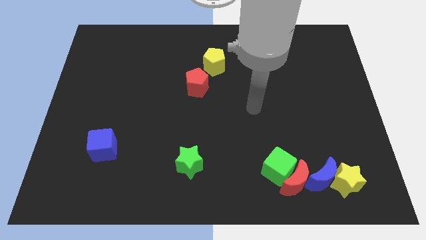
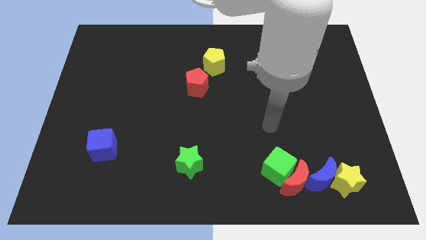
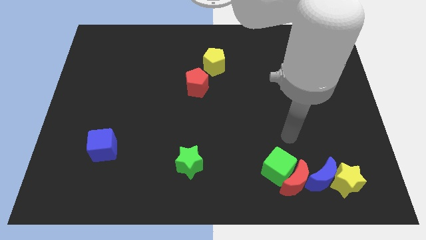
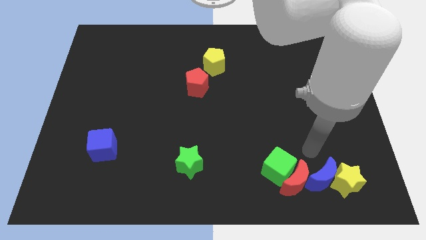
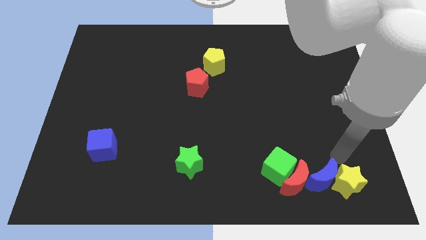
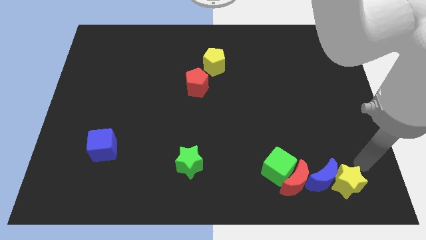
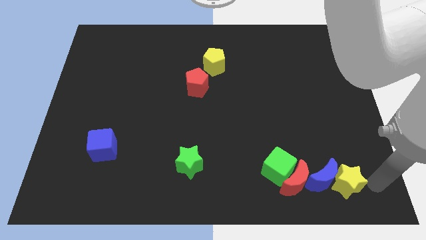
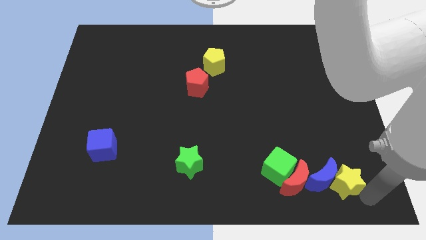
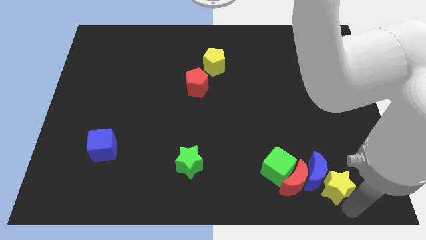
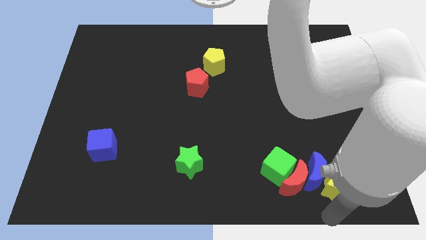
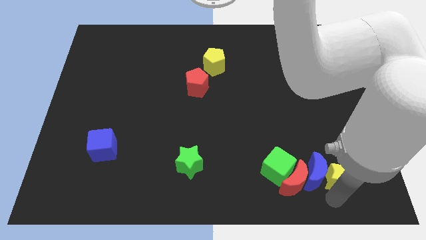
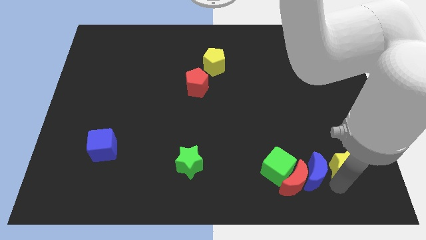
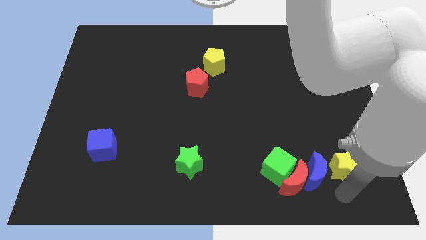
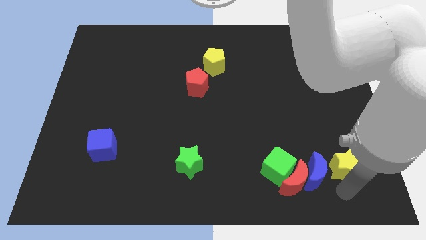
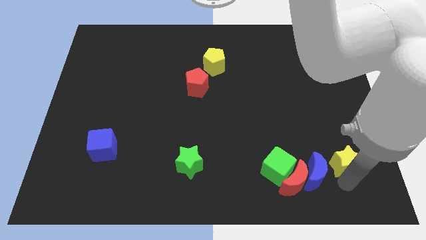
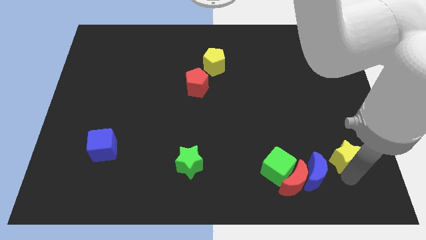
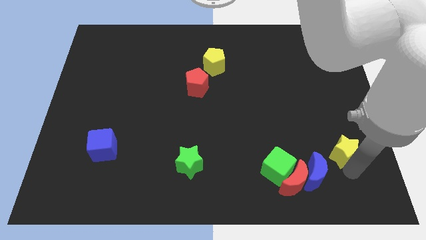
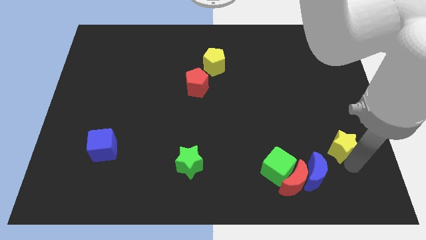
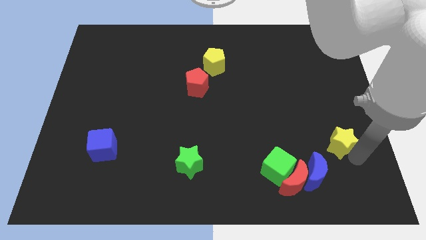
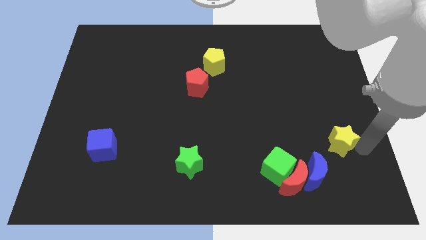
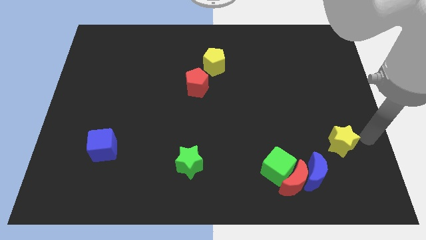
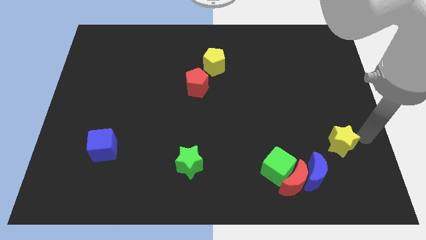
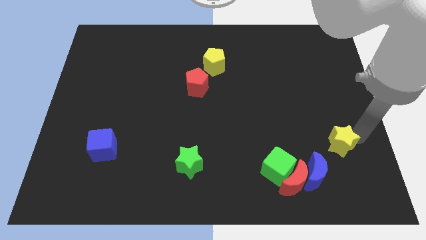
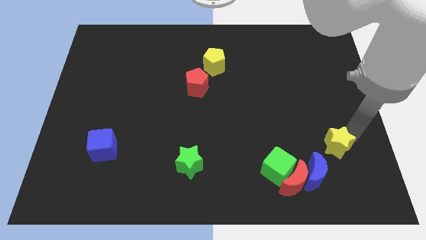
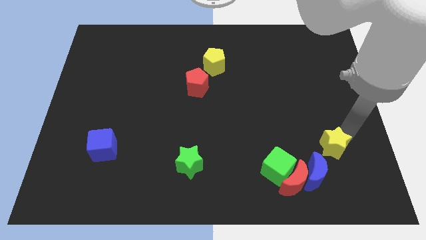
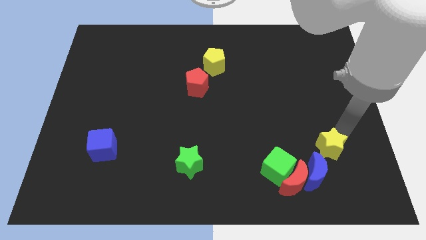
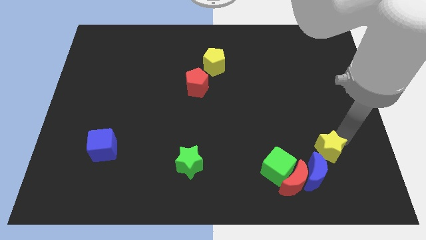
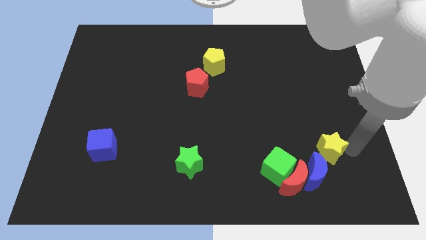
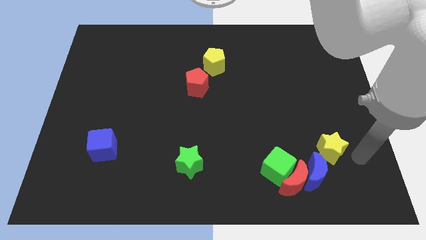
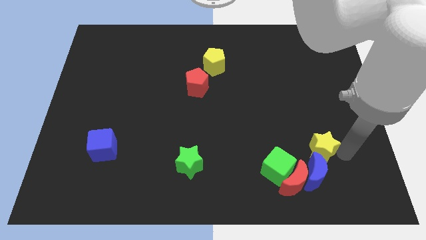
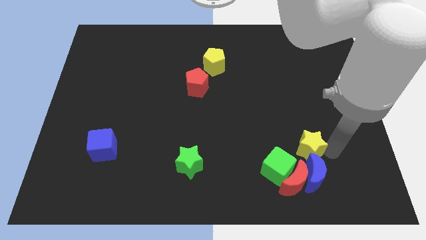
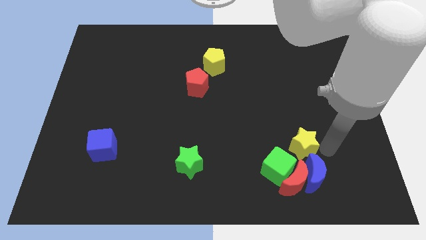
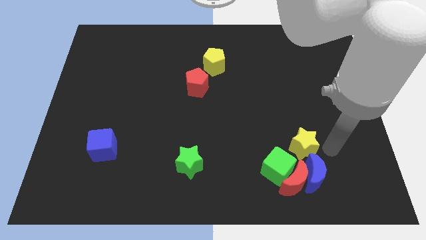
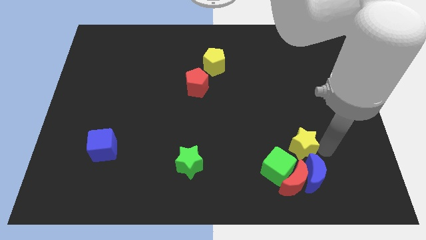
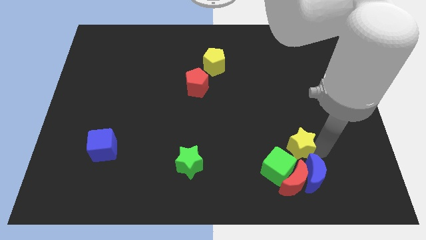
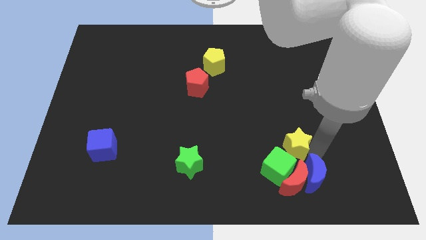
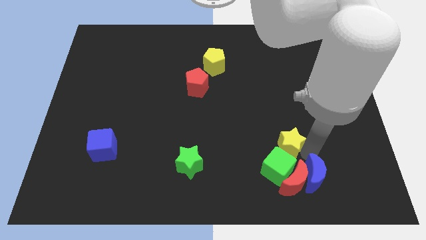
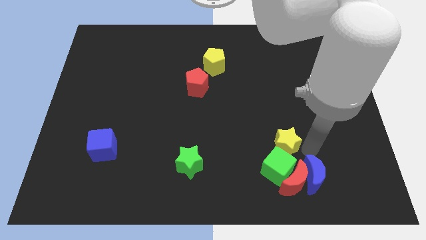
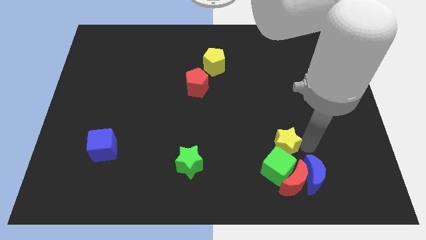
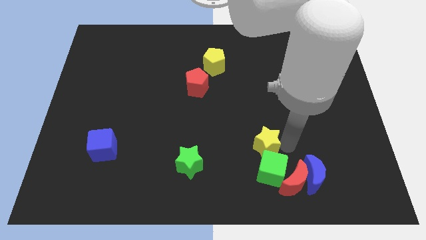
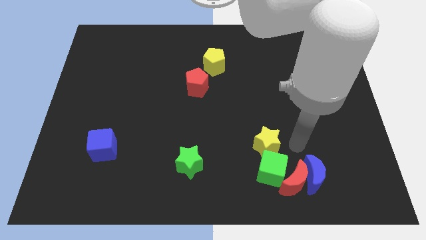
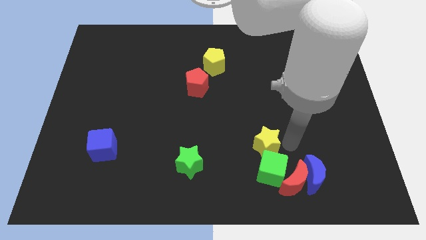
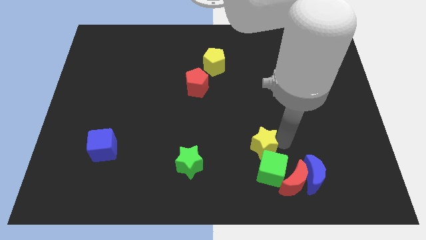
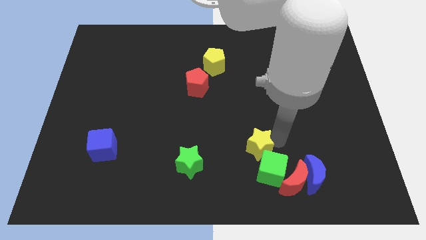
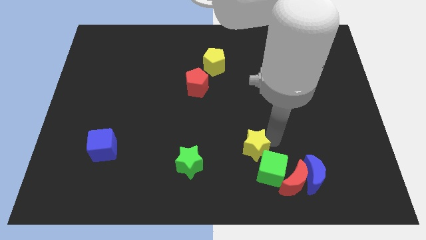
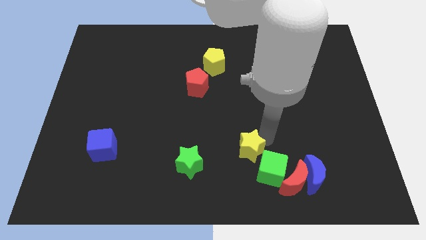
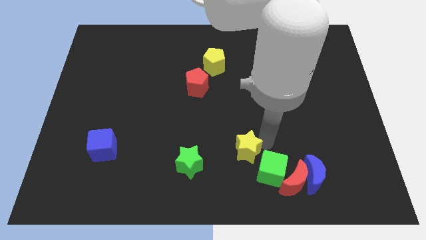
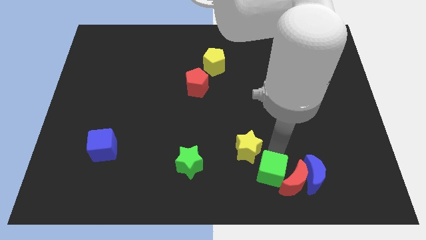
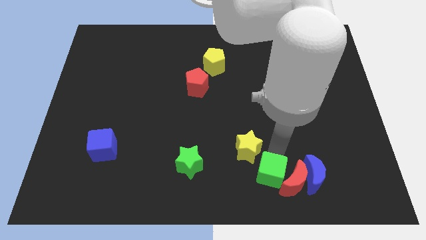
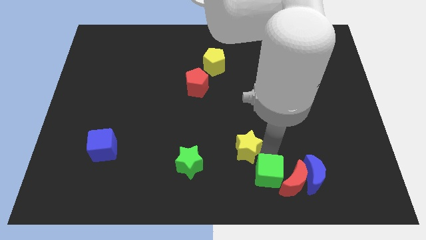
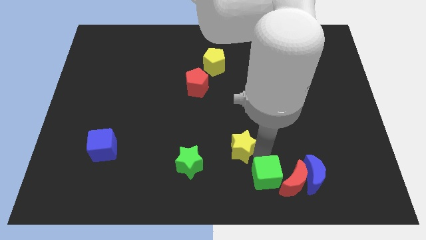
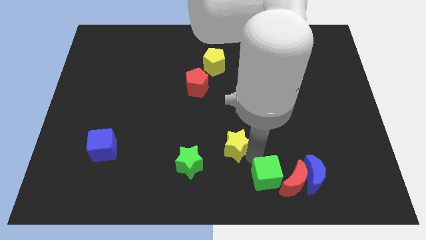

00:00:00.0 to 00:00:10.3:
put the yellow star to the top right of the green star

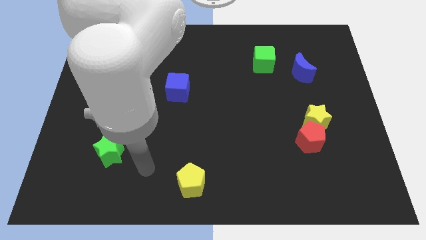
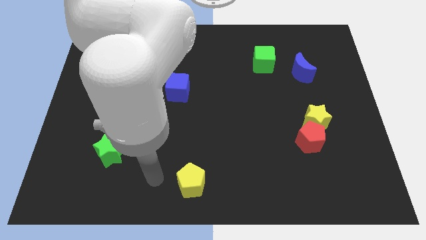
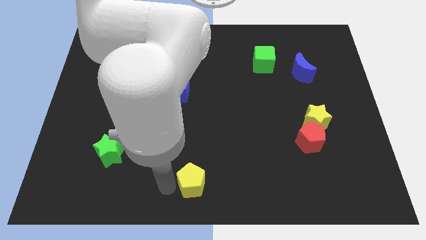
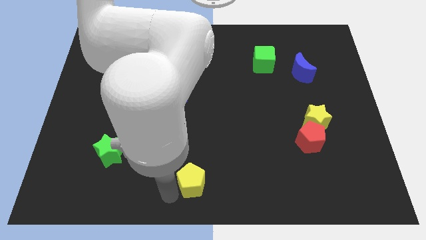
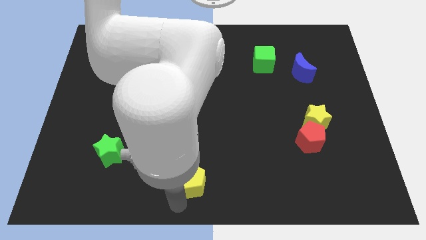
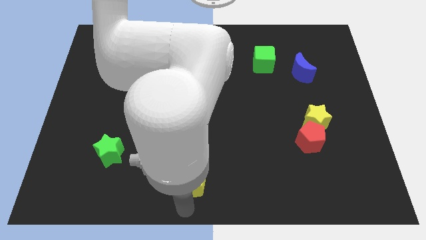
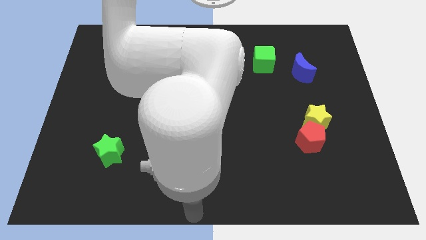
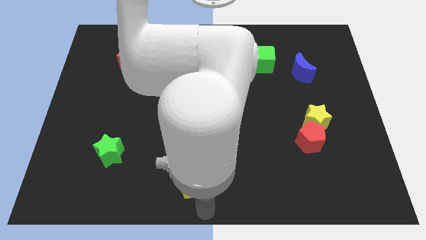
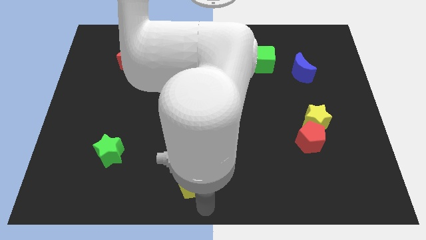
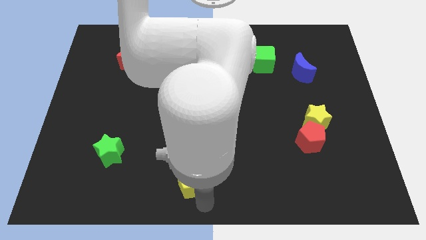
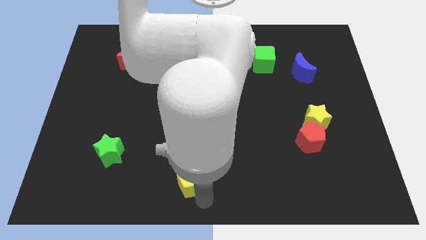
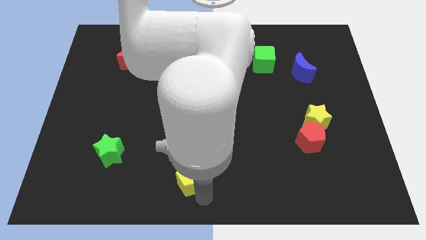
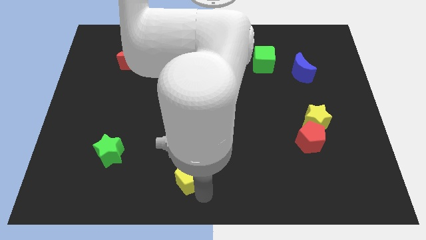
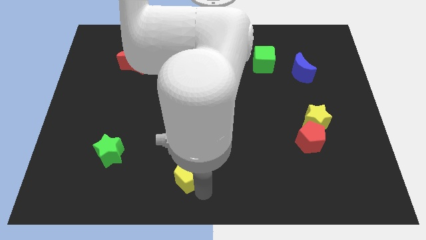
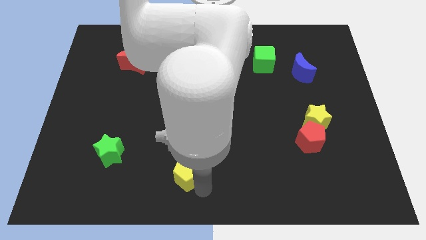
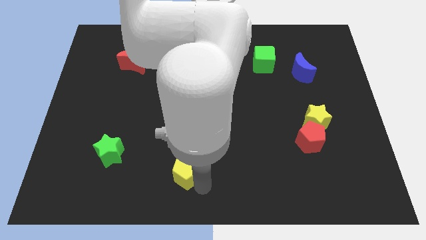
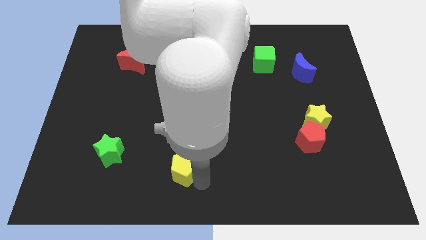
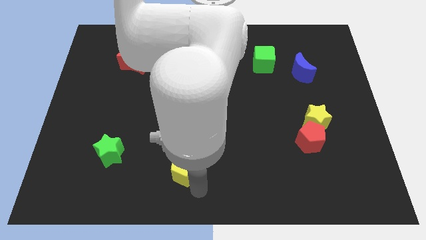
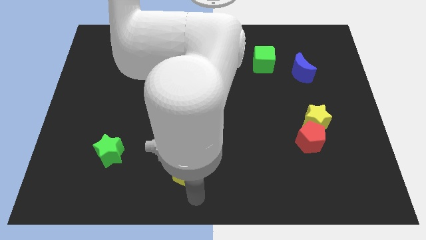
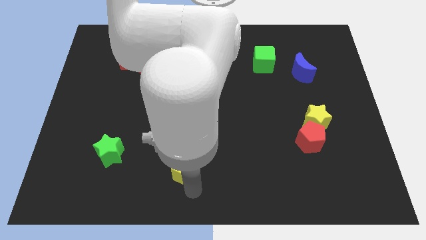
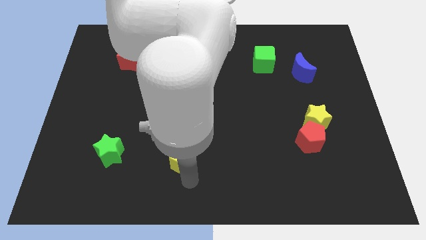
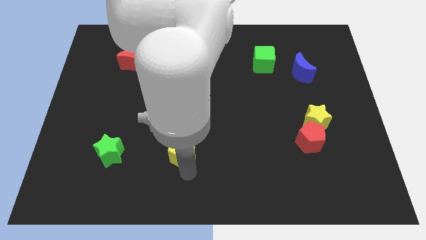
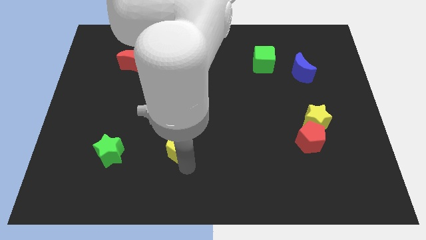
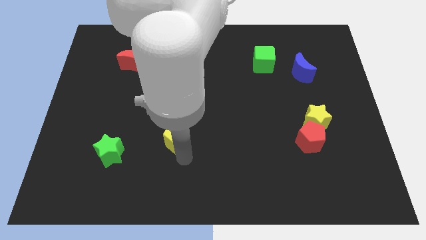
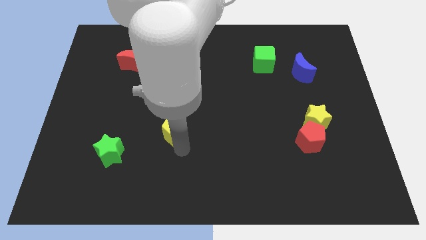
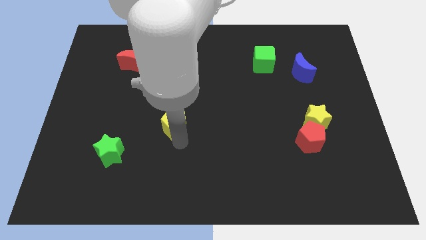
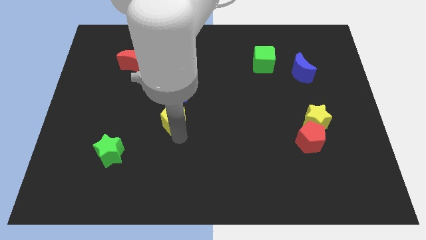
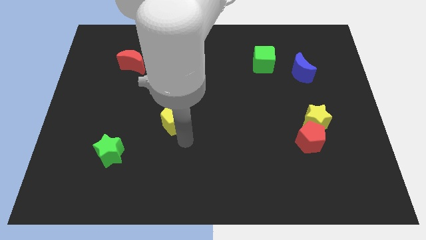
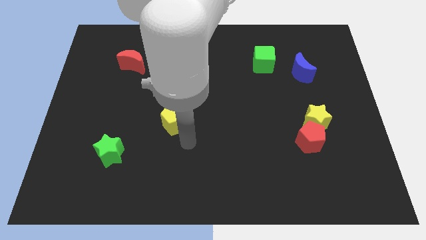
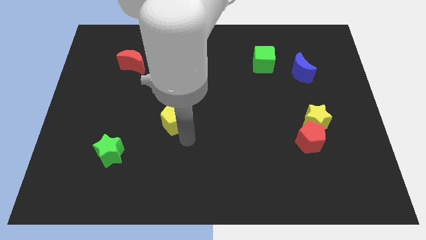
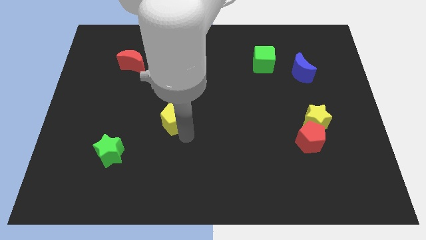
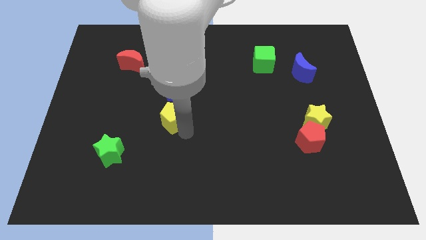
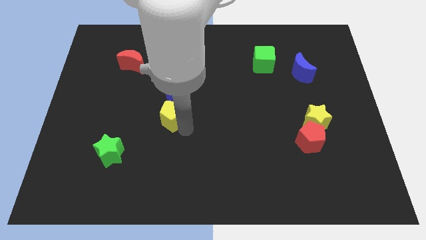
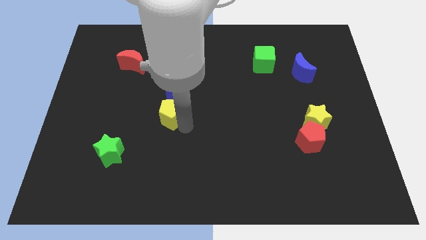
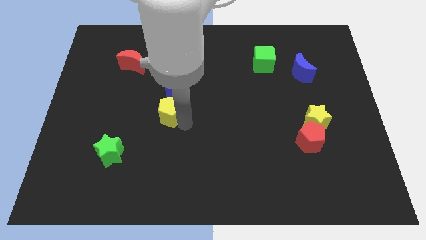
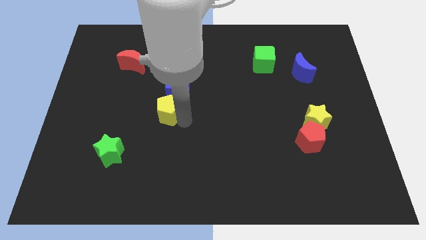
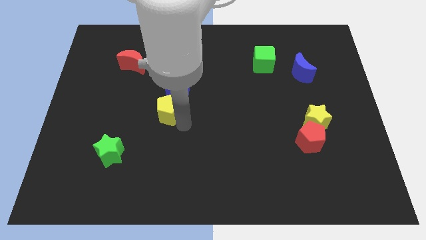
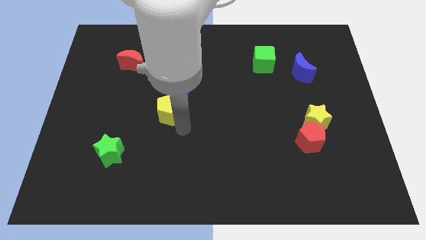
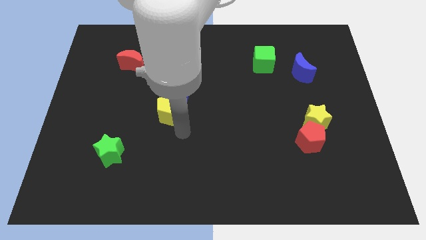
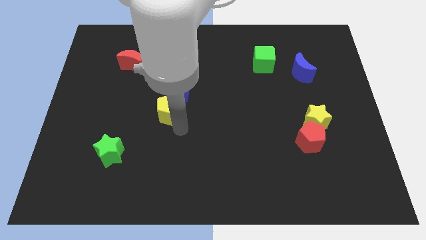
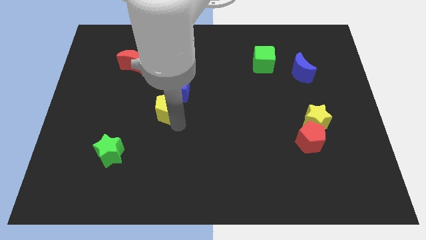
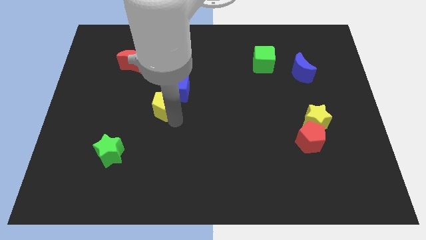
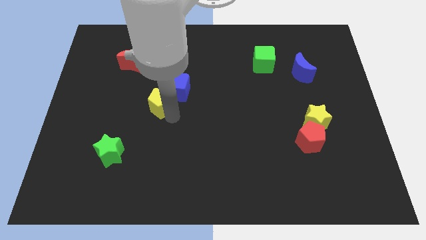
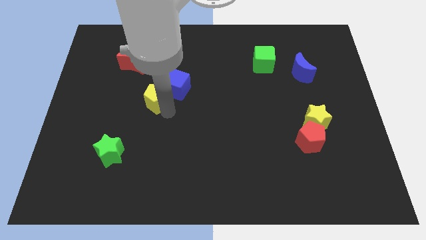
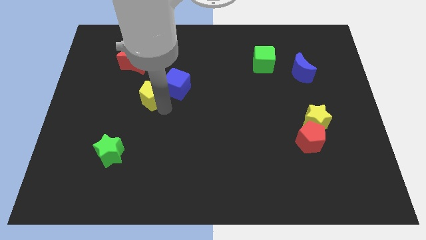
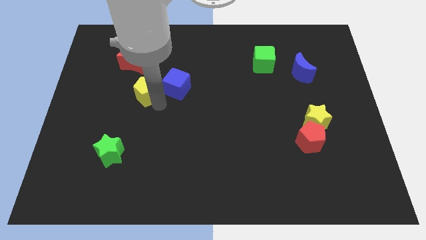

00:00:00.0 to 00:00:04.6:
push the yellow pentagon diagonally down and to the right of the red moon
